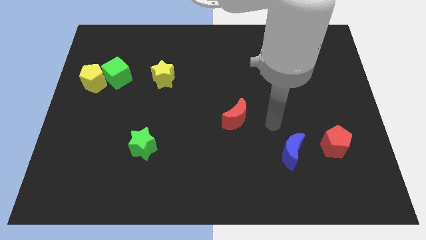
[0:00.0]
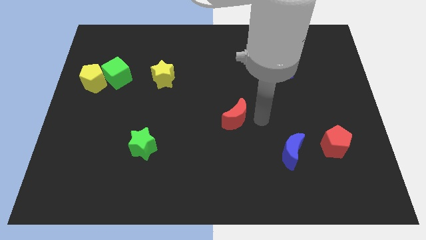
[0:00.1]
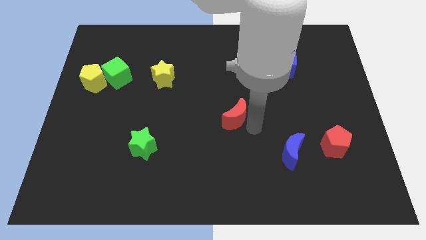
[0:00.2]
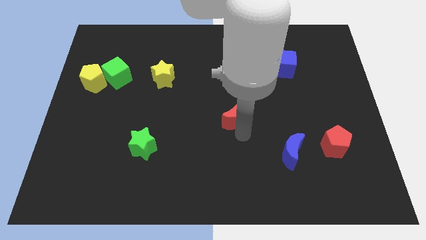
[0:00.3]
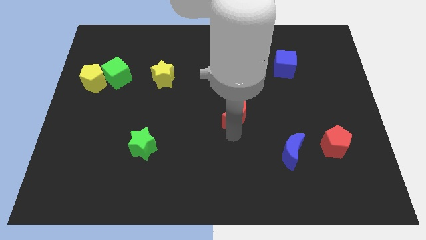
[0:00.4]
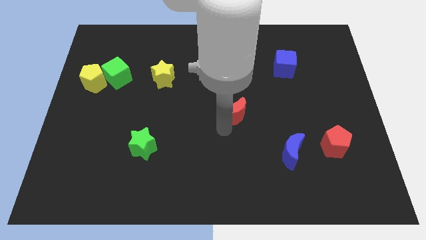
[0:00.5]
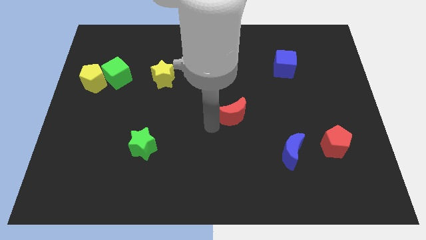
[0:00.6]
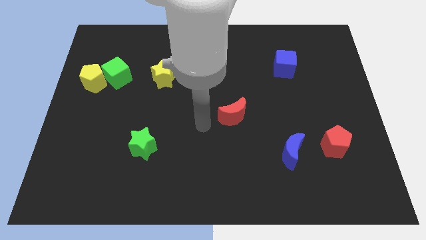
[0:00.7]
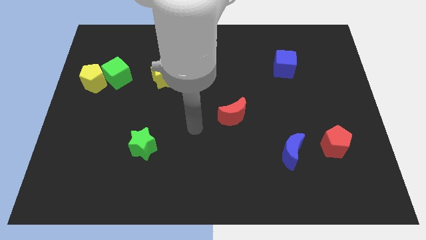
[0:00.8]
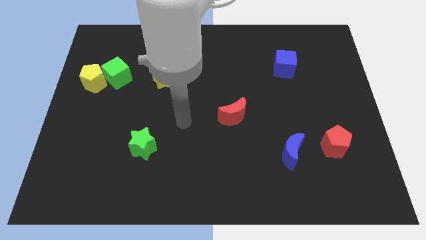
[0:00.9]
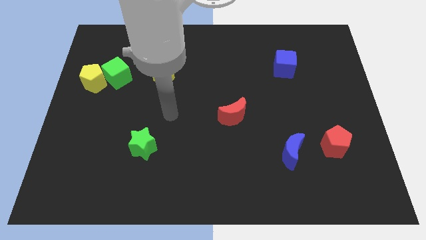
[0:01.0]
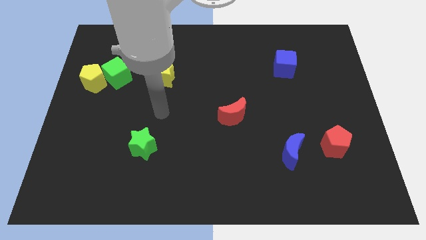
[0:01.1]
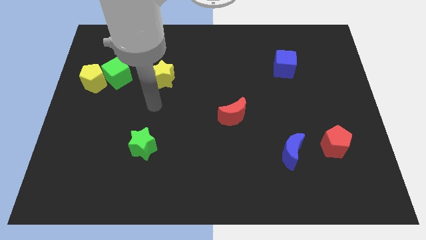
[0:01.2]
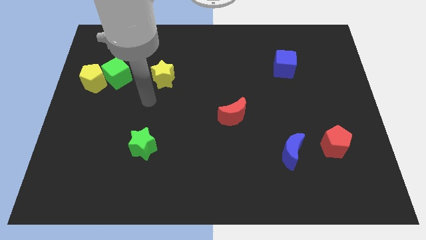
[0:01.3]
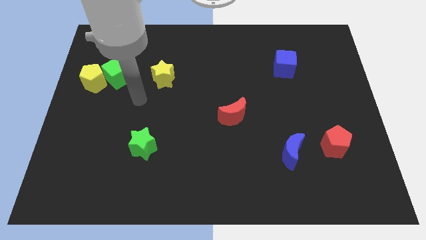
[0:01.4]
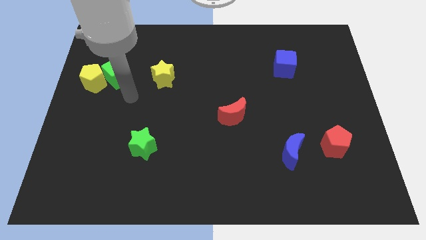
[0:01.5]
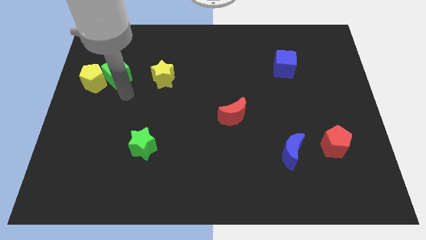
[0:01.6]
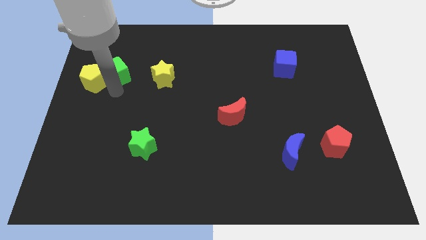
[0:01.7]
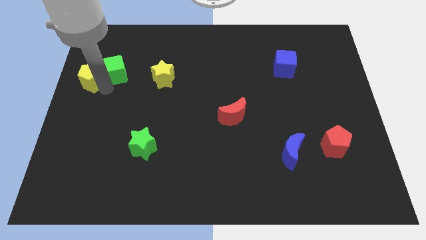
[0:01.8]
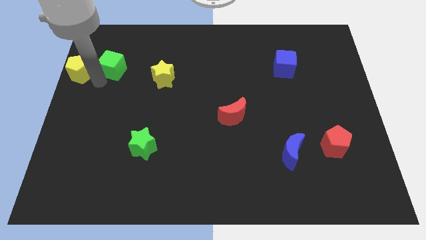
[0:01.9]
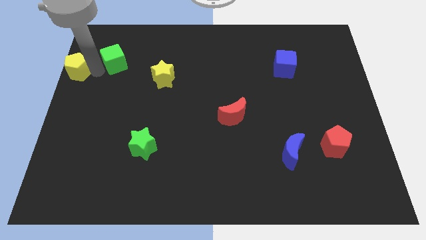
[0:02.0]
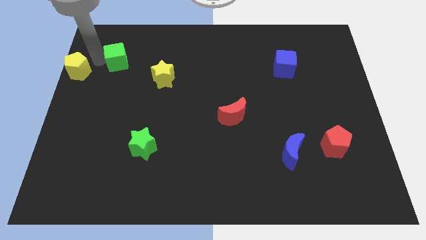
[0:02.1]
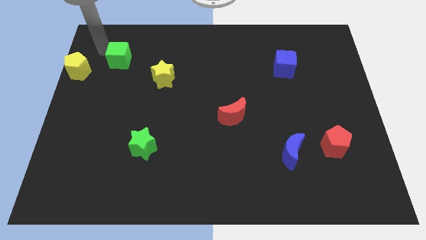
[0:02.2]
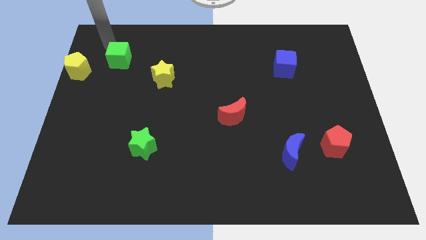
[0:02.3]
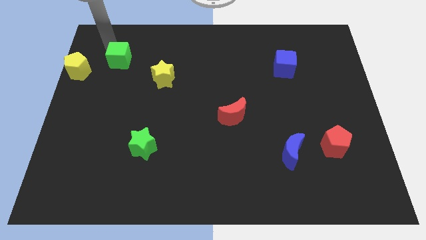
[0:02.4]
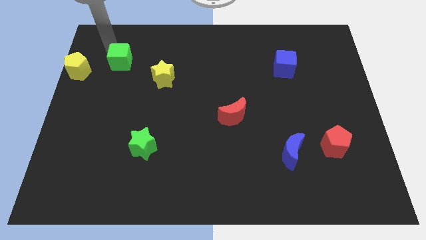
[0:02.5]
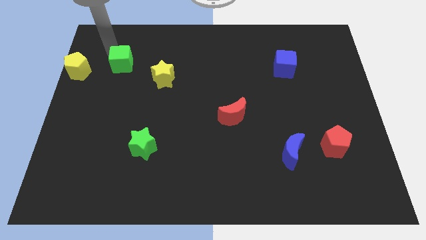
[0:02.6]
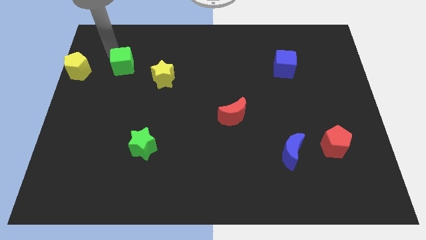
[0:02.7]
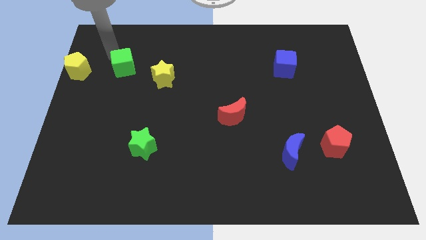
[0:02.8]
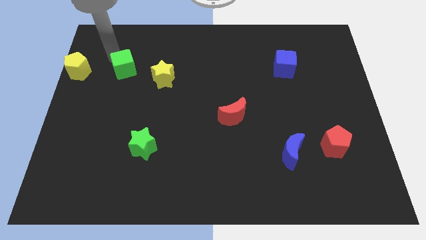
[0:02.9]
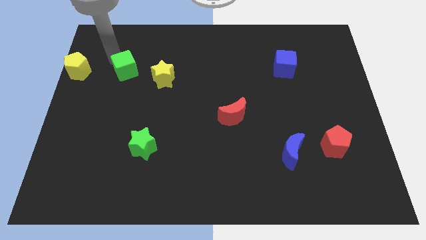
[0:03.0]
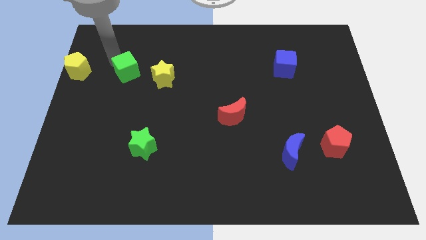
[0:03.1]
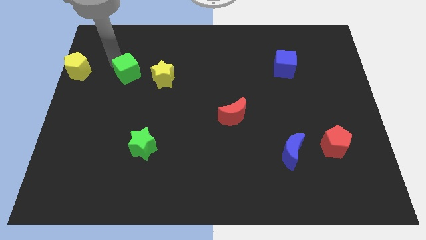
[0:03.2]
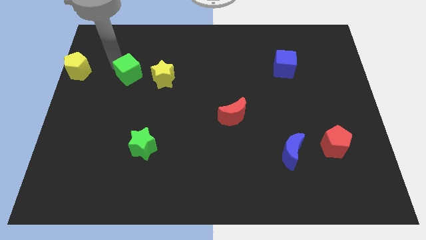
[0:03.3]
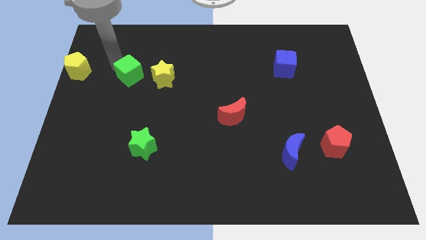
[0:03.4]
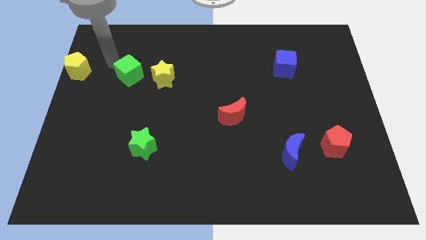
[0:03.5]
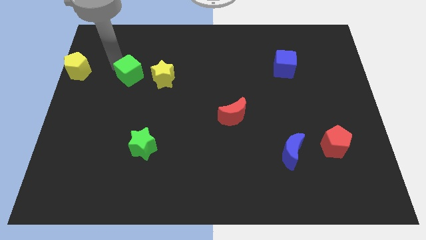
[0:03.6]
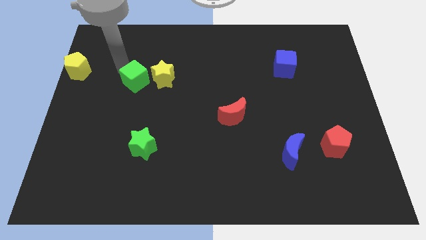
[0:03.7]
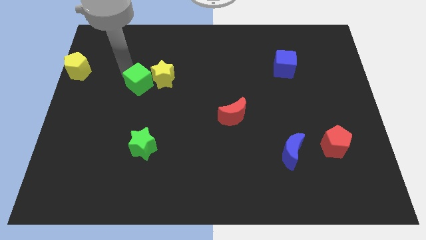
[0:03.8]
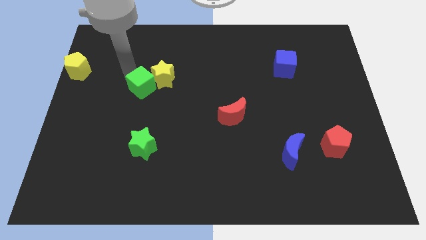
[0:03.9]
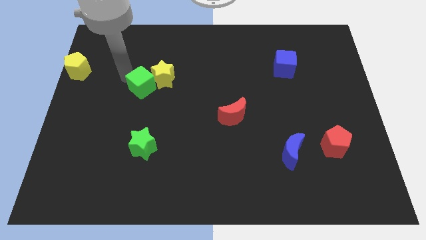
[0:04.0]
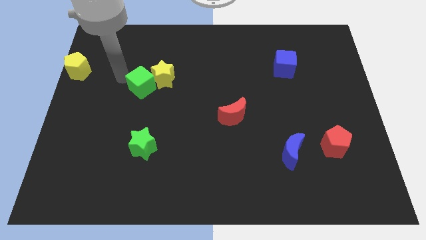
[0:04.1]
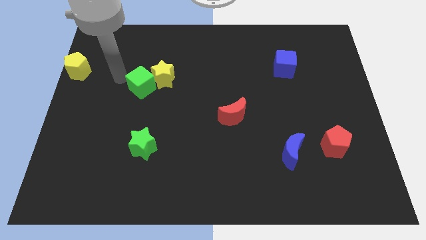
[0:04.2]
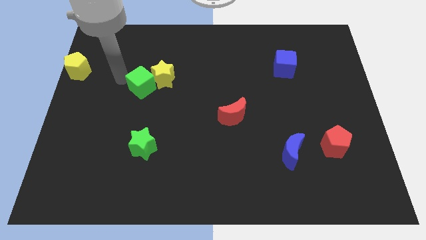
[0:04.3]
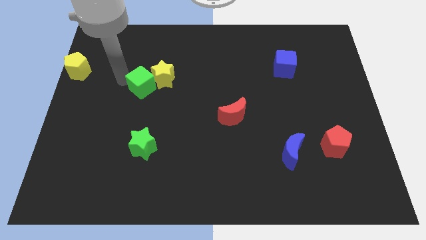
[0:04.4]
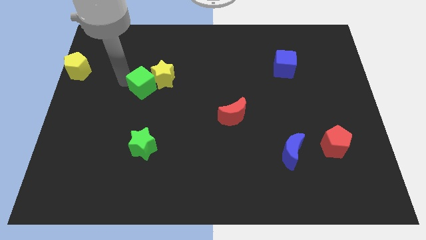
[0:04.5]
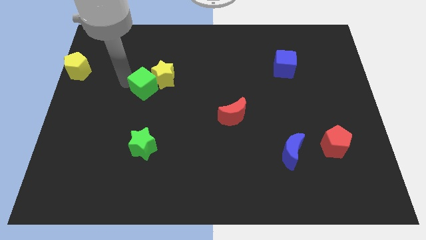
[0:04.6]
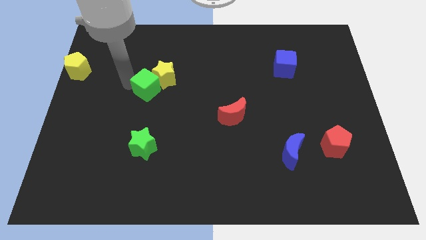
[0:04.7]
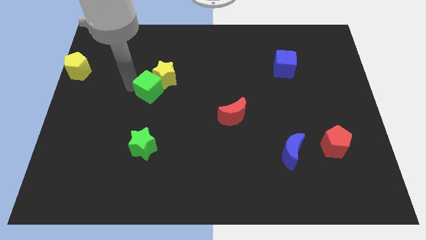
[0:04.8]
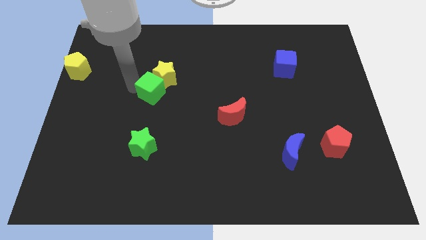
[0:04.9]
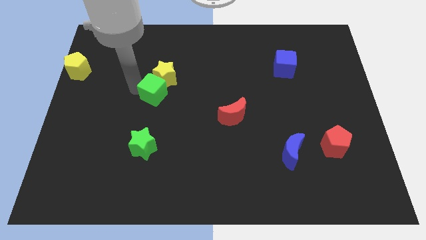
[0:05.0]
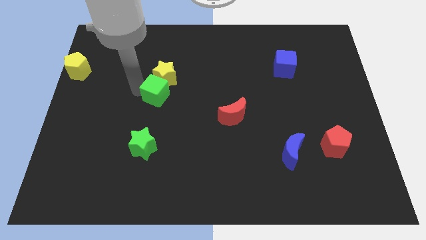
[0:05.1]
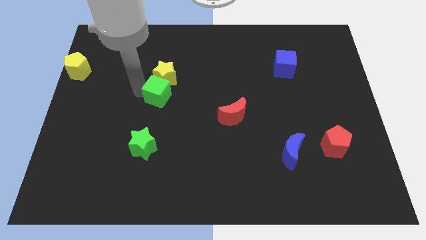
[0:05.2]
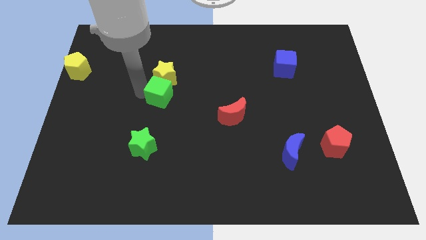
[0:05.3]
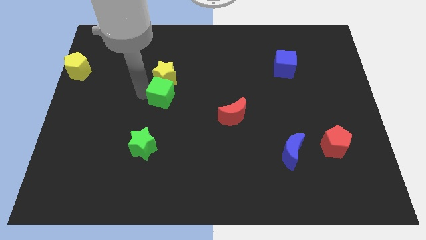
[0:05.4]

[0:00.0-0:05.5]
move the green cube to the middle of the board

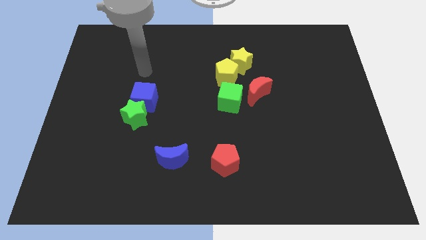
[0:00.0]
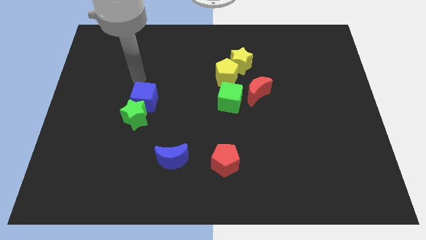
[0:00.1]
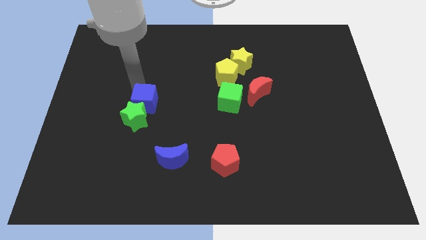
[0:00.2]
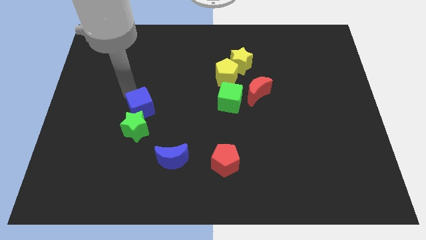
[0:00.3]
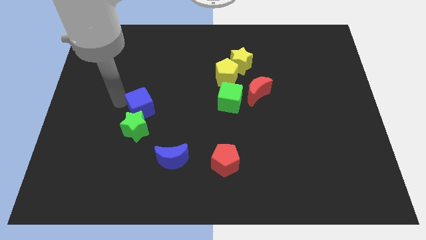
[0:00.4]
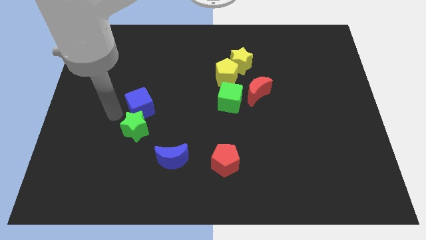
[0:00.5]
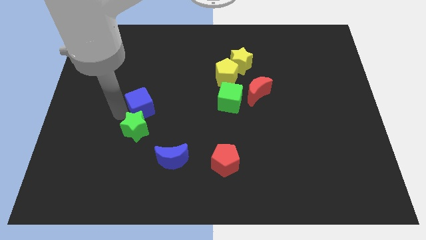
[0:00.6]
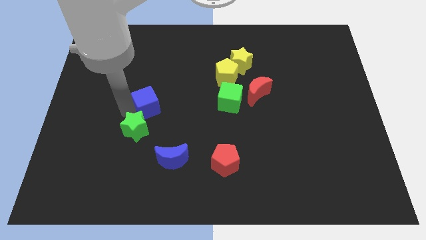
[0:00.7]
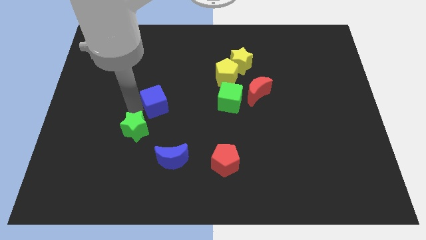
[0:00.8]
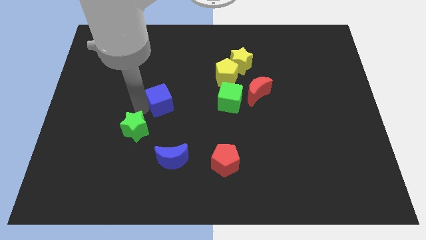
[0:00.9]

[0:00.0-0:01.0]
put the blue cube to the center
